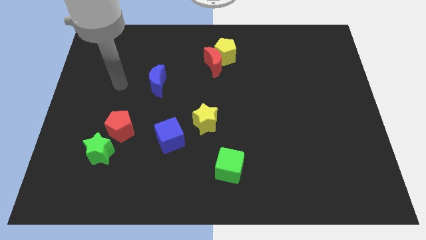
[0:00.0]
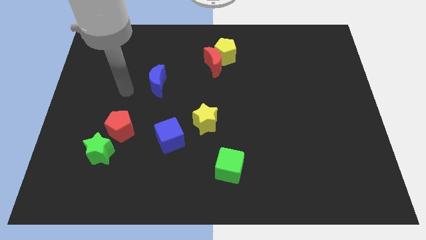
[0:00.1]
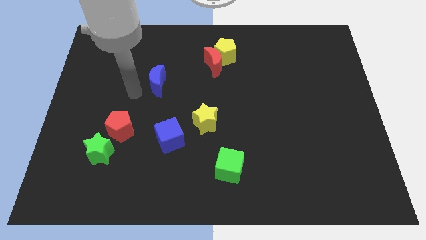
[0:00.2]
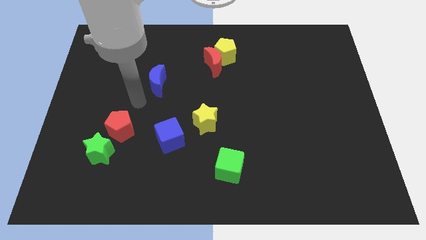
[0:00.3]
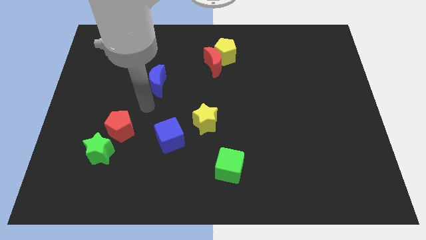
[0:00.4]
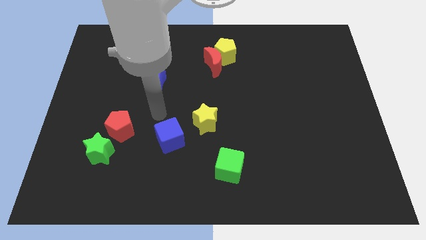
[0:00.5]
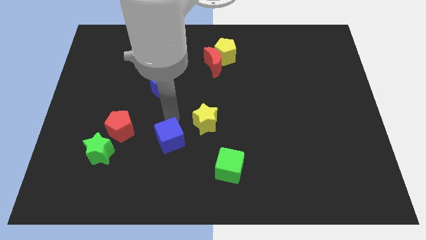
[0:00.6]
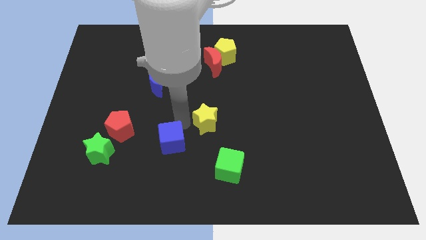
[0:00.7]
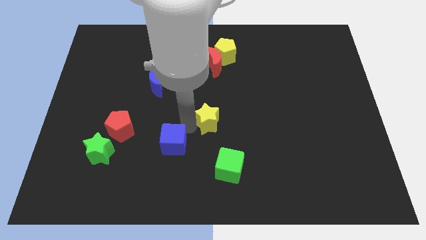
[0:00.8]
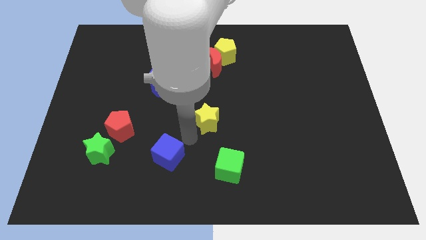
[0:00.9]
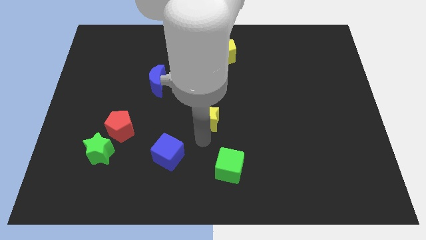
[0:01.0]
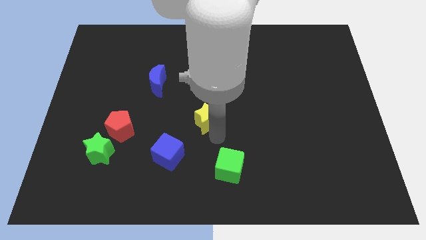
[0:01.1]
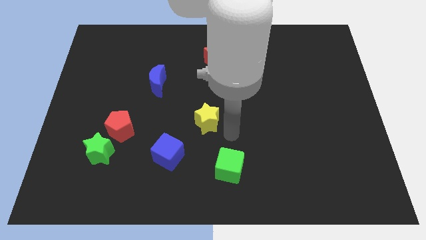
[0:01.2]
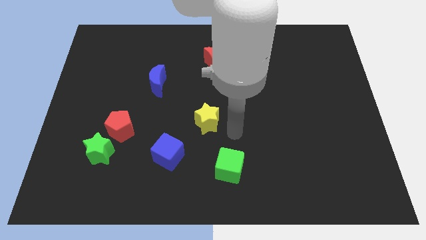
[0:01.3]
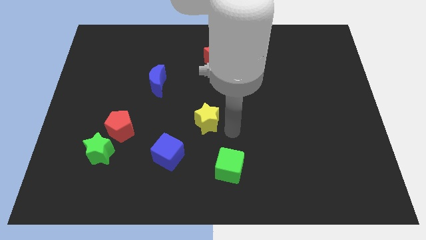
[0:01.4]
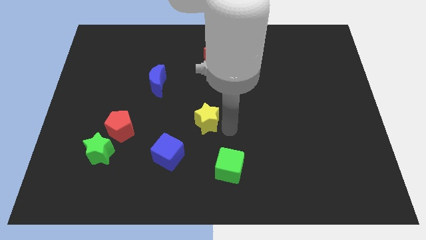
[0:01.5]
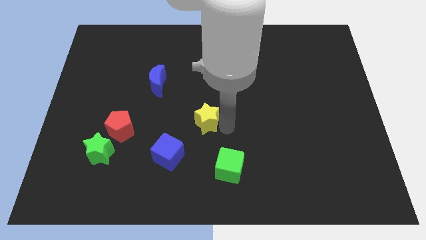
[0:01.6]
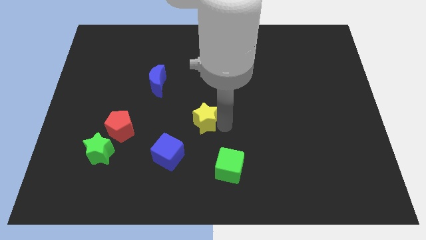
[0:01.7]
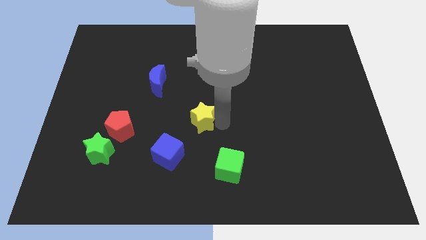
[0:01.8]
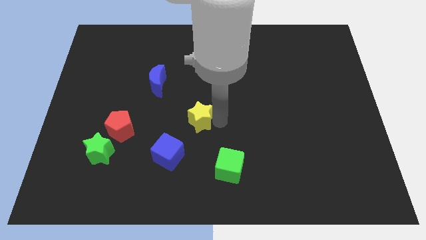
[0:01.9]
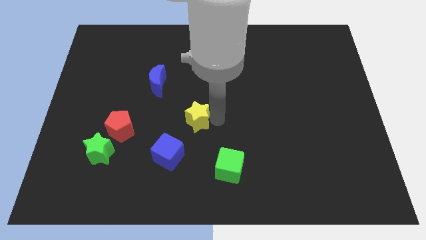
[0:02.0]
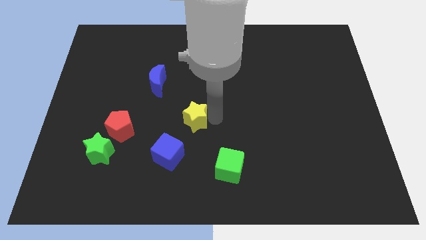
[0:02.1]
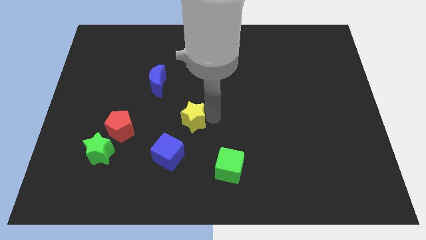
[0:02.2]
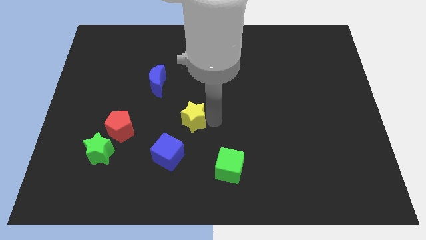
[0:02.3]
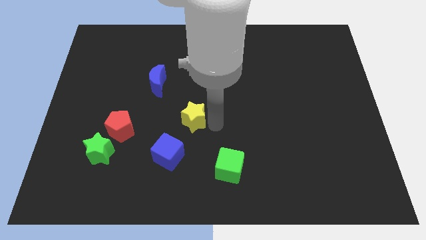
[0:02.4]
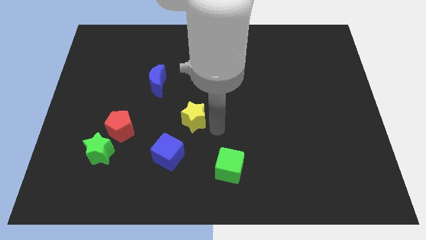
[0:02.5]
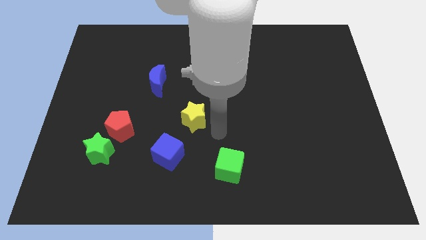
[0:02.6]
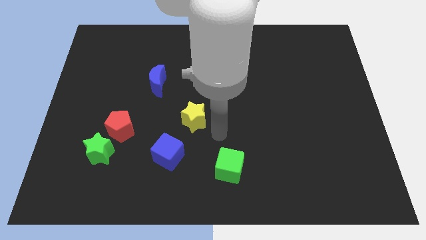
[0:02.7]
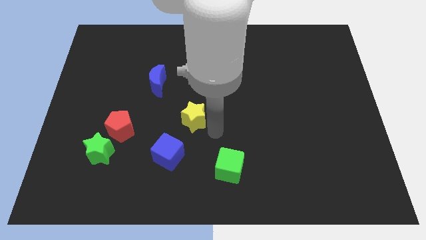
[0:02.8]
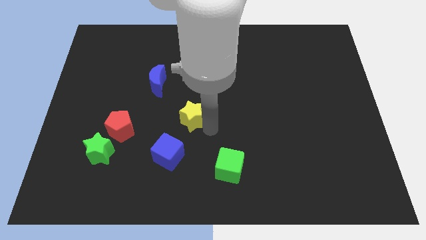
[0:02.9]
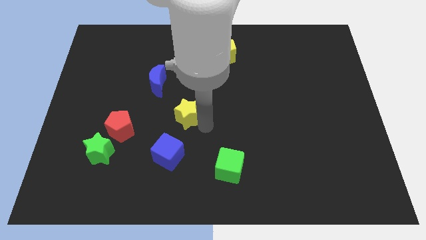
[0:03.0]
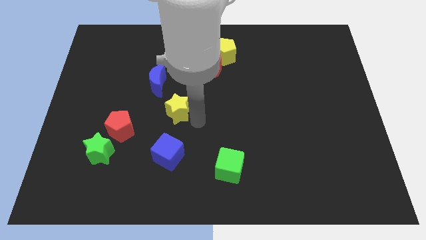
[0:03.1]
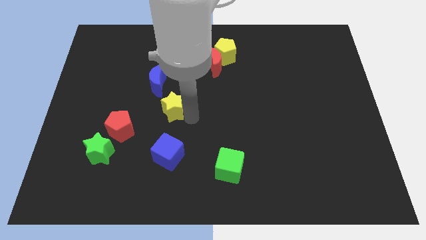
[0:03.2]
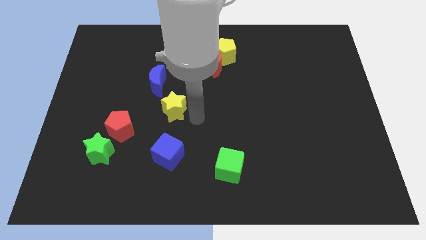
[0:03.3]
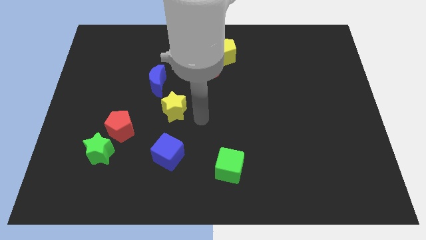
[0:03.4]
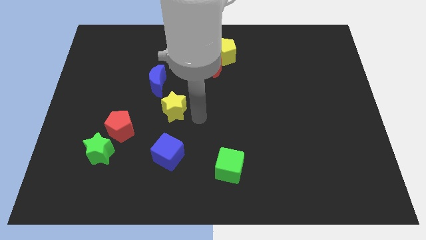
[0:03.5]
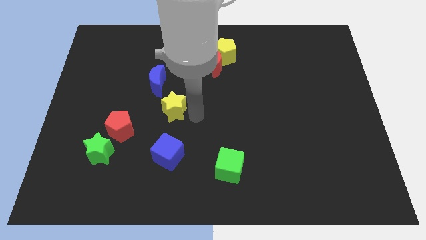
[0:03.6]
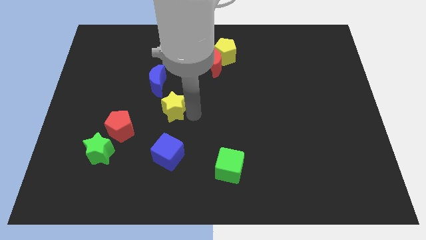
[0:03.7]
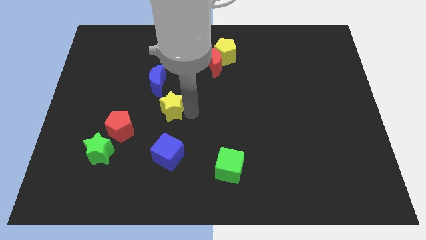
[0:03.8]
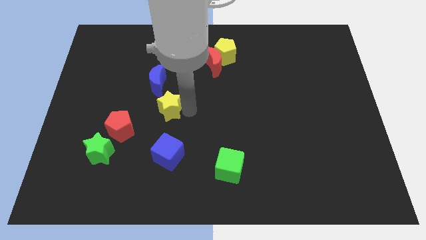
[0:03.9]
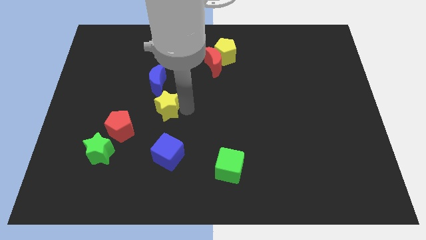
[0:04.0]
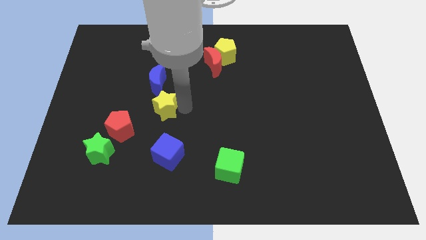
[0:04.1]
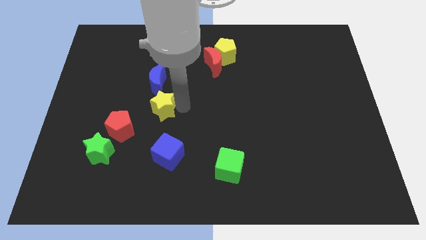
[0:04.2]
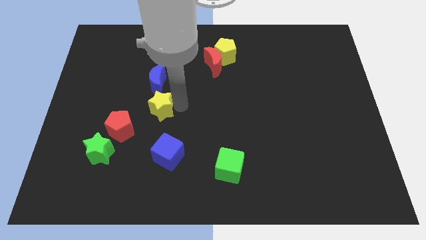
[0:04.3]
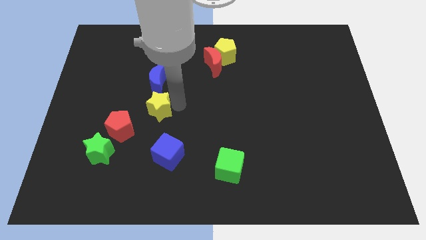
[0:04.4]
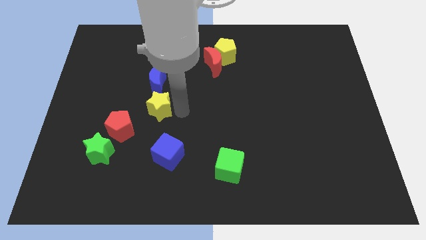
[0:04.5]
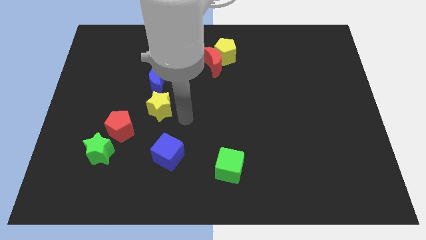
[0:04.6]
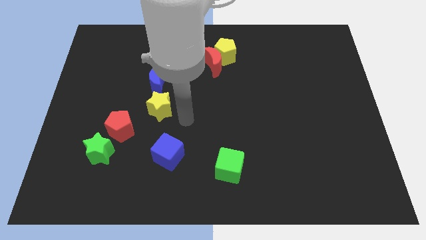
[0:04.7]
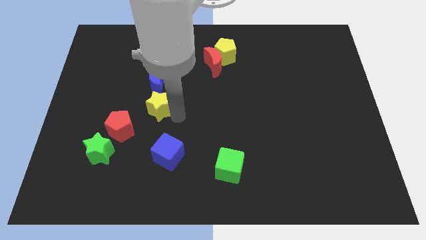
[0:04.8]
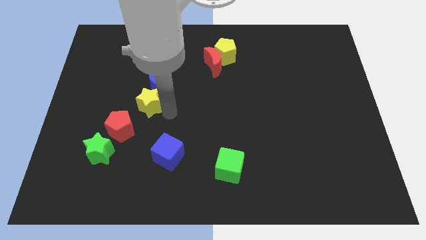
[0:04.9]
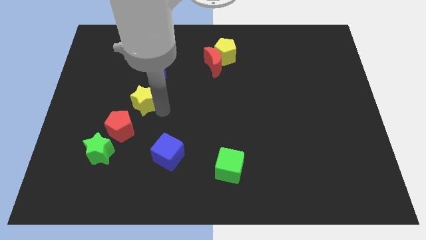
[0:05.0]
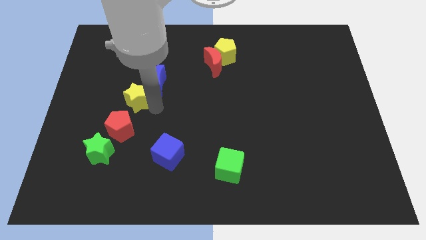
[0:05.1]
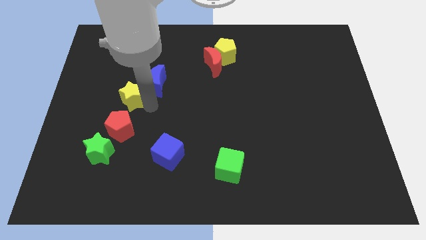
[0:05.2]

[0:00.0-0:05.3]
slide the yellow star left of the blue moon

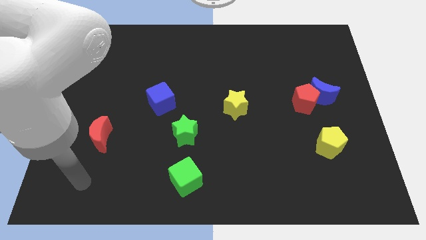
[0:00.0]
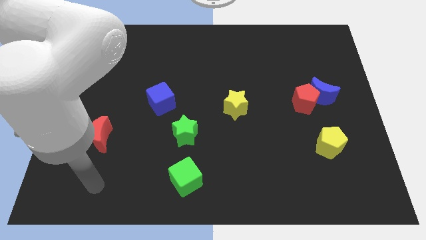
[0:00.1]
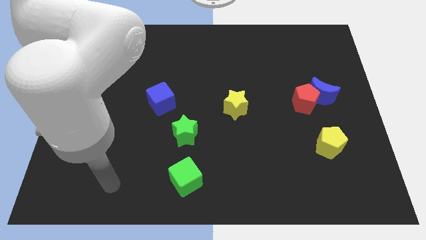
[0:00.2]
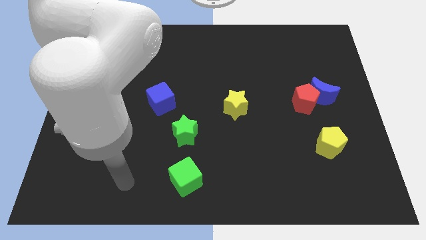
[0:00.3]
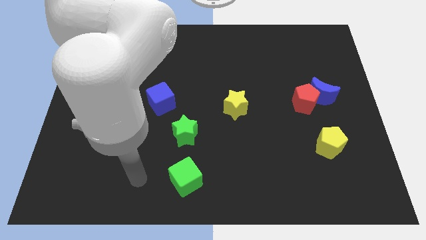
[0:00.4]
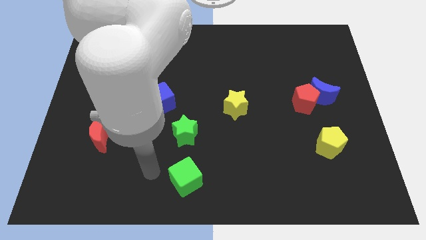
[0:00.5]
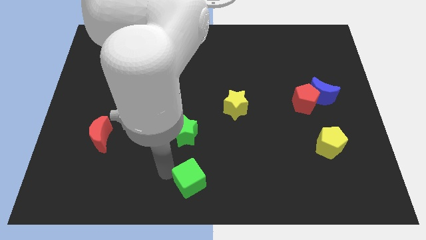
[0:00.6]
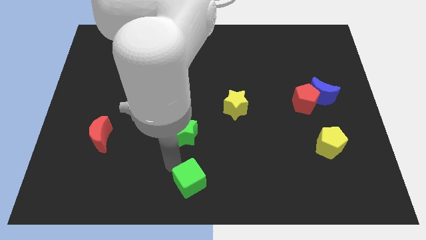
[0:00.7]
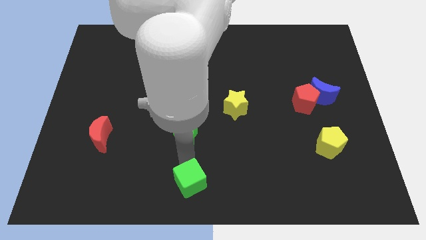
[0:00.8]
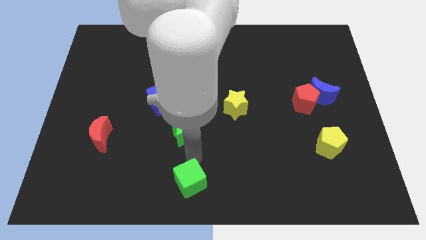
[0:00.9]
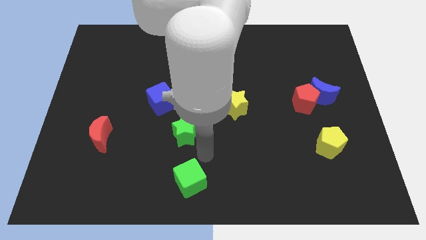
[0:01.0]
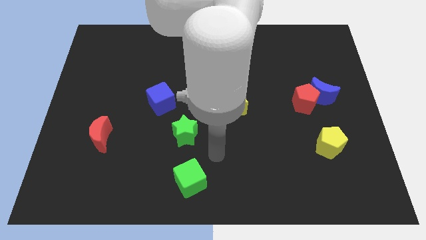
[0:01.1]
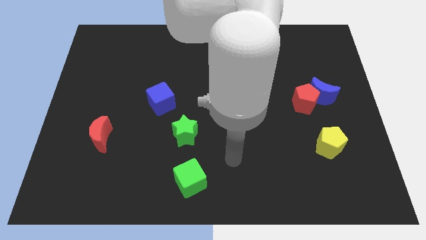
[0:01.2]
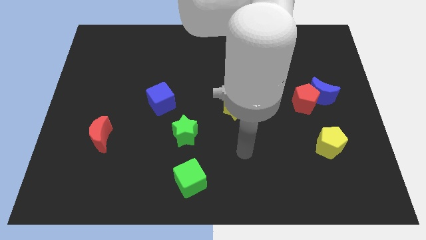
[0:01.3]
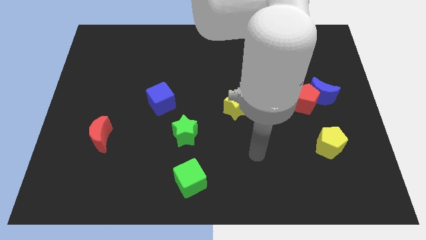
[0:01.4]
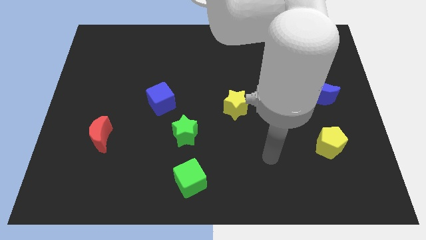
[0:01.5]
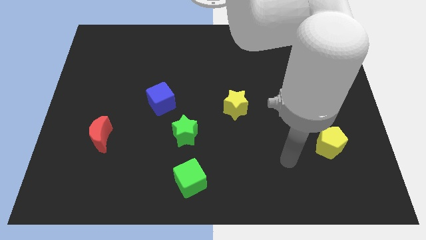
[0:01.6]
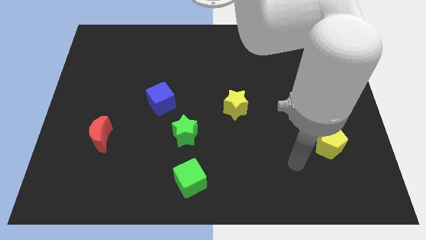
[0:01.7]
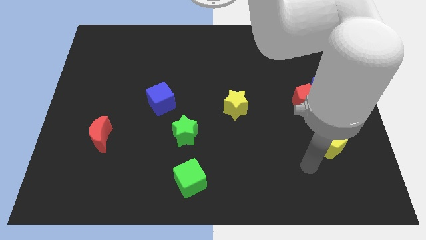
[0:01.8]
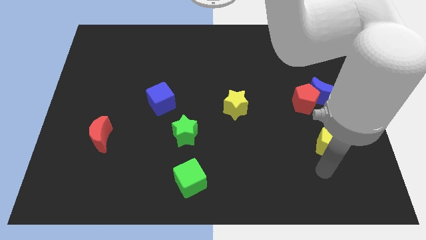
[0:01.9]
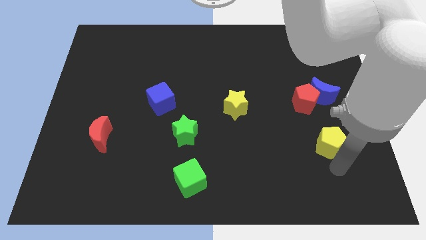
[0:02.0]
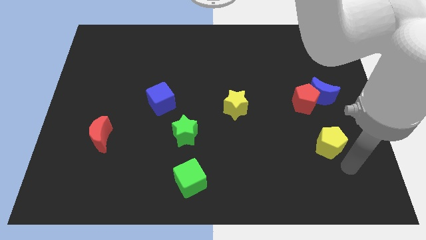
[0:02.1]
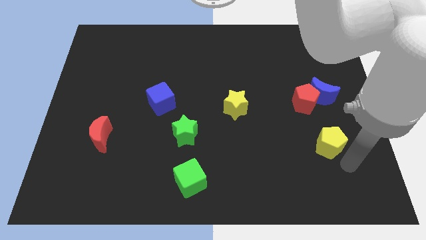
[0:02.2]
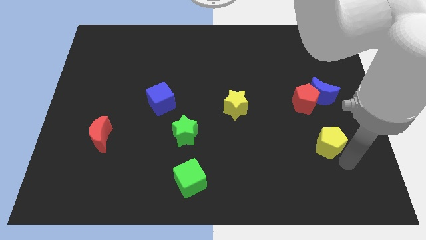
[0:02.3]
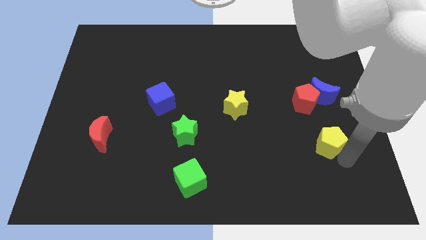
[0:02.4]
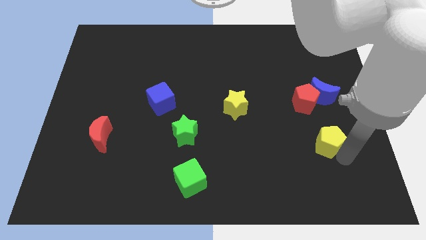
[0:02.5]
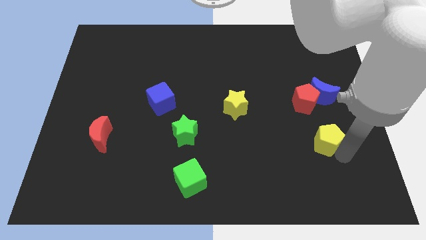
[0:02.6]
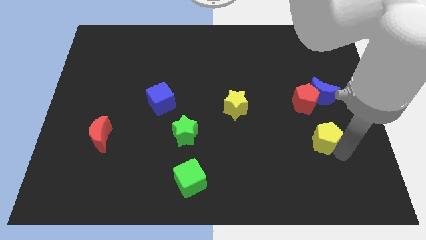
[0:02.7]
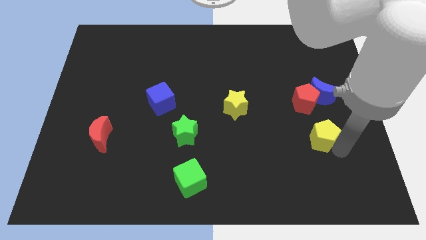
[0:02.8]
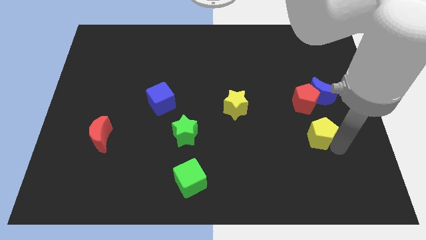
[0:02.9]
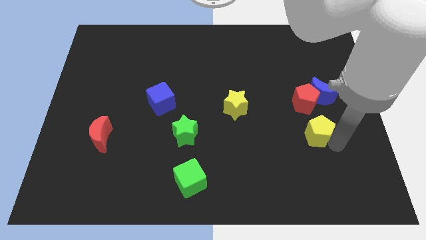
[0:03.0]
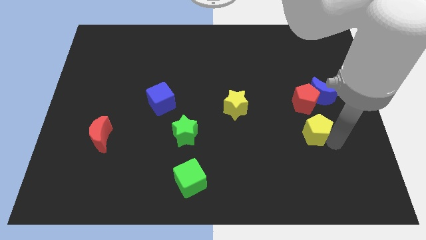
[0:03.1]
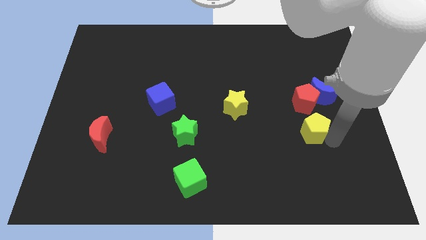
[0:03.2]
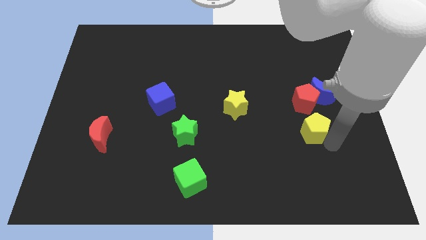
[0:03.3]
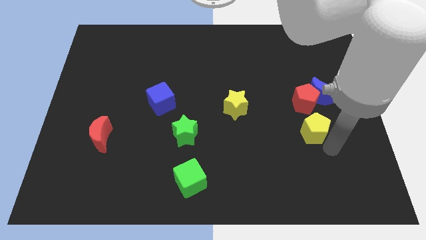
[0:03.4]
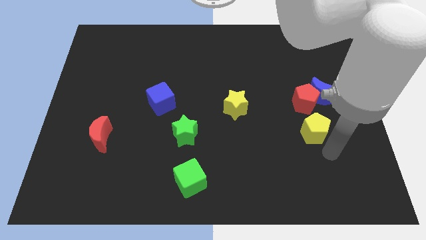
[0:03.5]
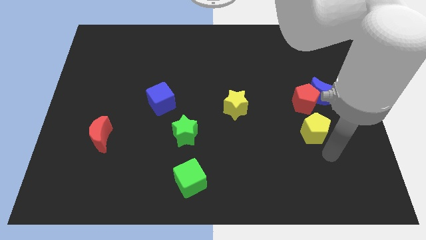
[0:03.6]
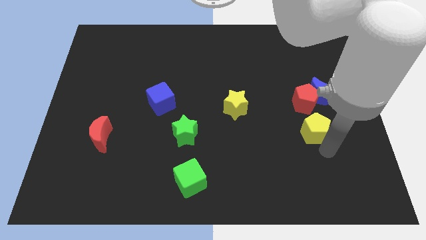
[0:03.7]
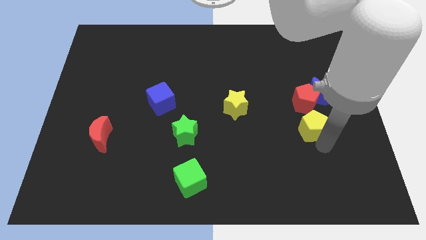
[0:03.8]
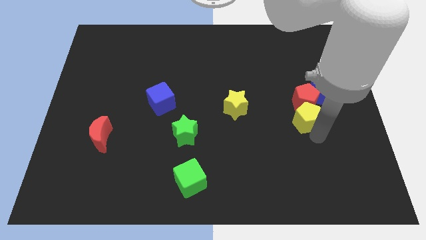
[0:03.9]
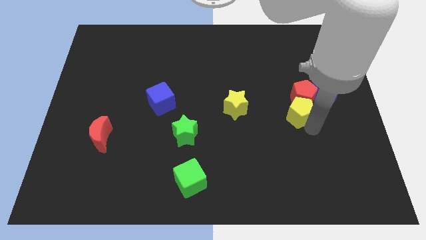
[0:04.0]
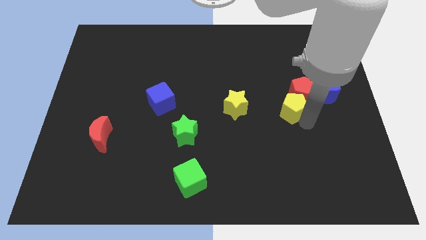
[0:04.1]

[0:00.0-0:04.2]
push the yellow pentagon to the left of the blue moon
